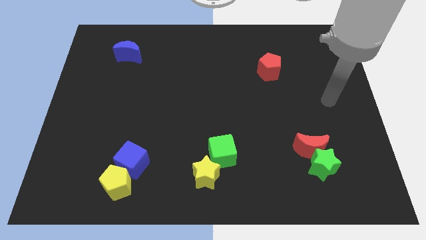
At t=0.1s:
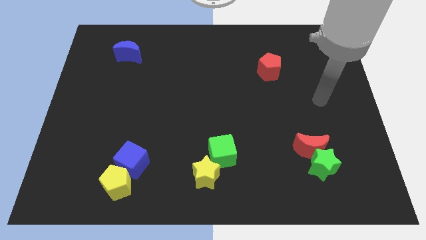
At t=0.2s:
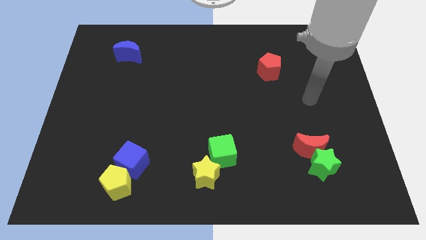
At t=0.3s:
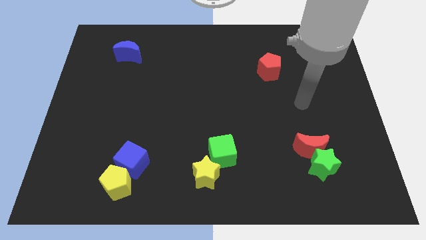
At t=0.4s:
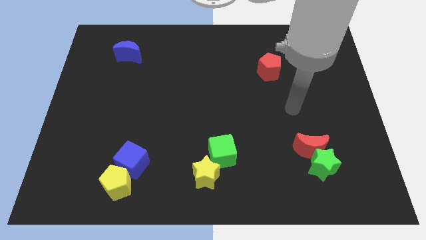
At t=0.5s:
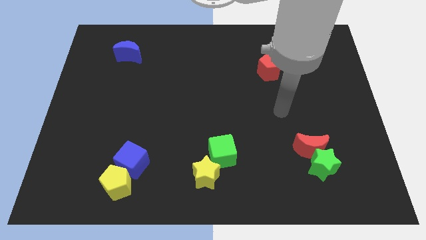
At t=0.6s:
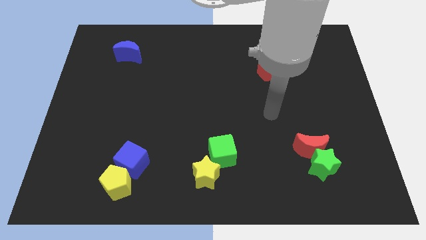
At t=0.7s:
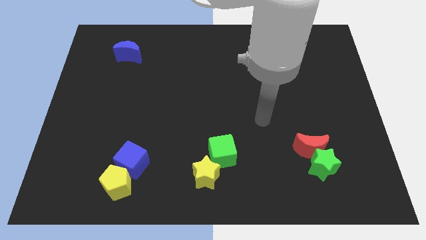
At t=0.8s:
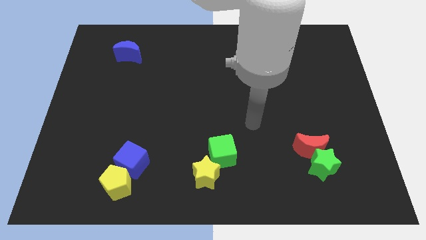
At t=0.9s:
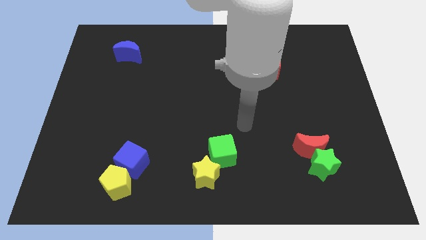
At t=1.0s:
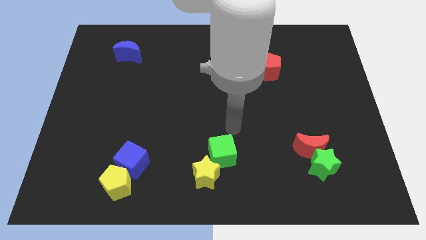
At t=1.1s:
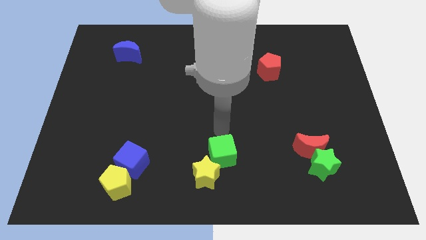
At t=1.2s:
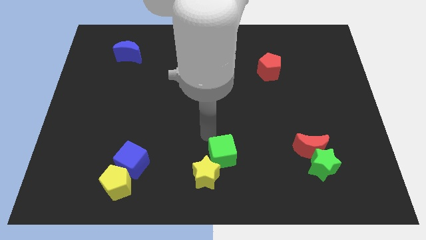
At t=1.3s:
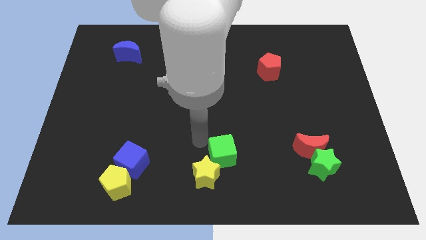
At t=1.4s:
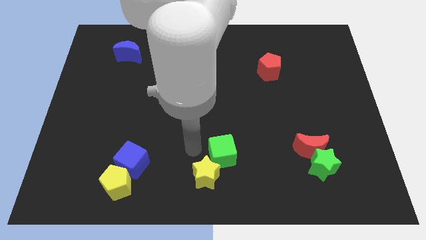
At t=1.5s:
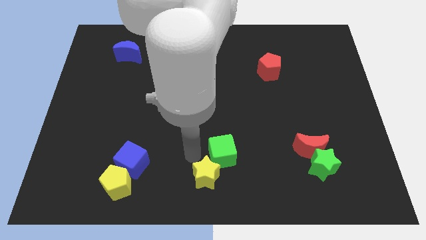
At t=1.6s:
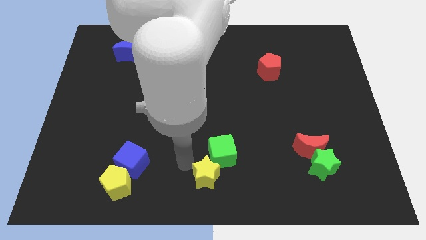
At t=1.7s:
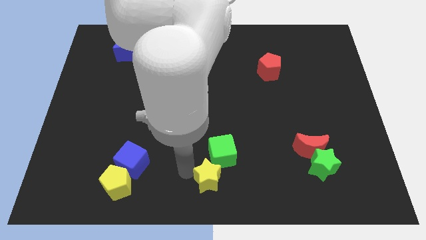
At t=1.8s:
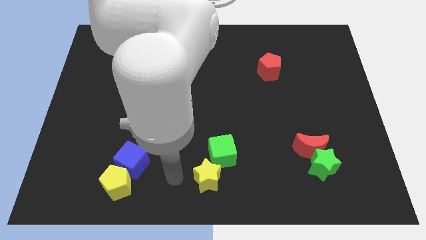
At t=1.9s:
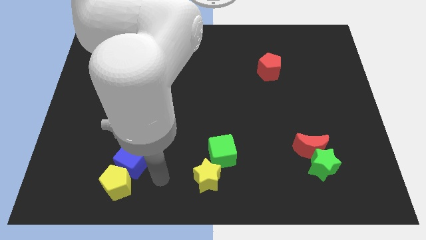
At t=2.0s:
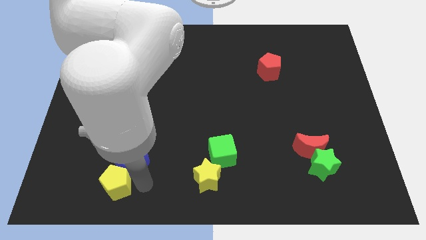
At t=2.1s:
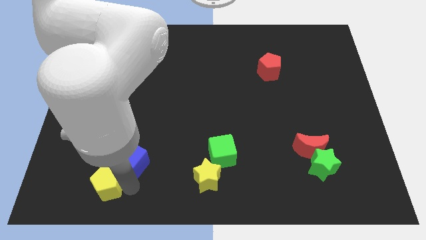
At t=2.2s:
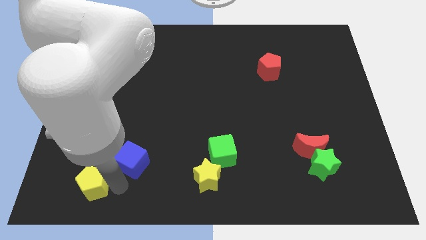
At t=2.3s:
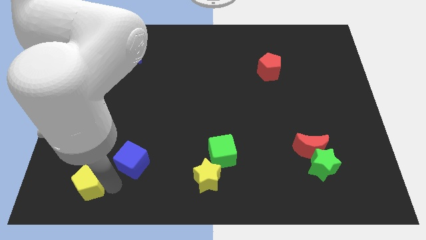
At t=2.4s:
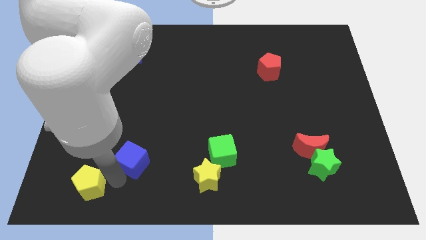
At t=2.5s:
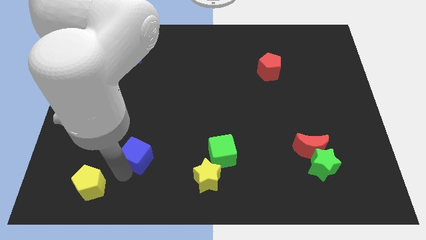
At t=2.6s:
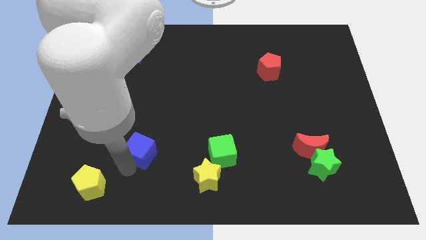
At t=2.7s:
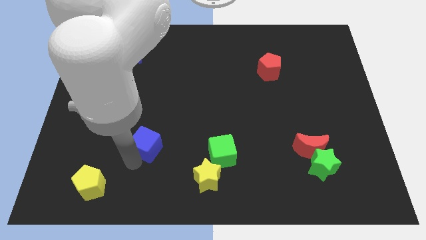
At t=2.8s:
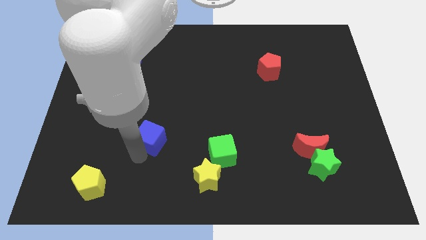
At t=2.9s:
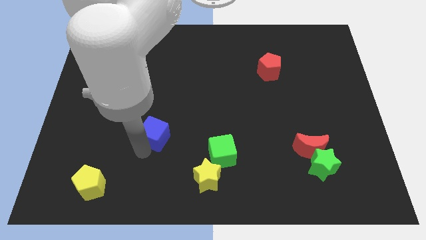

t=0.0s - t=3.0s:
slightly push the blue cube upwards and right diagonally

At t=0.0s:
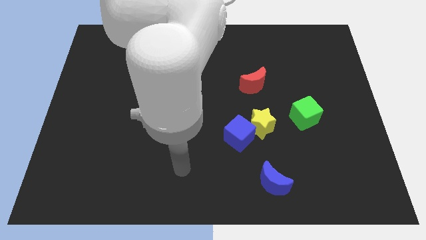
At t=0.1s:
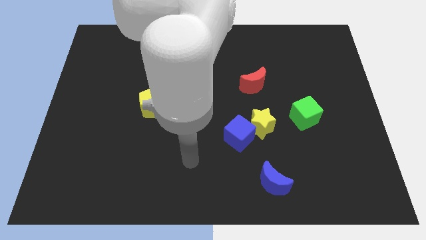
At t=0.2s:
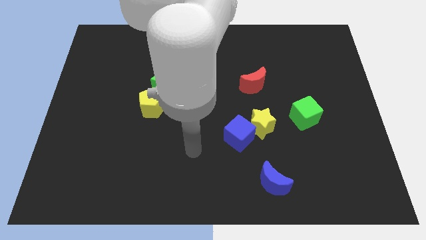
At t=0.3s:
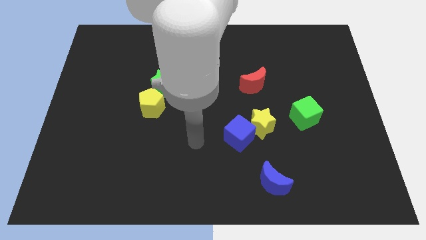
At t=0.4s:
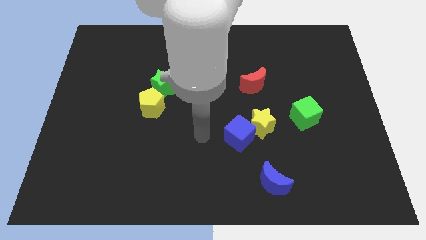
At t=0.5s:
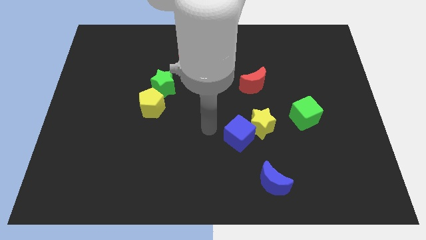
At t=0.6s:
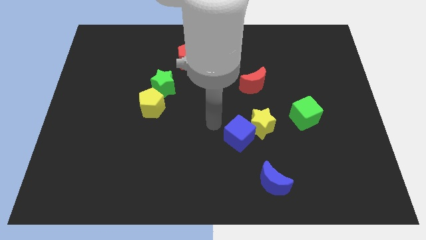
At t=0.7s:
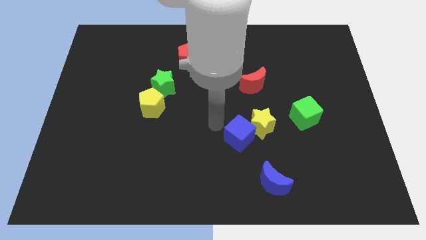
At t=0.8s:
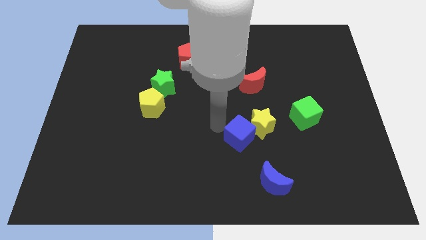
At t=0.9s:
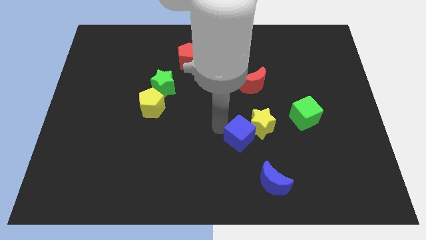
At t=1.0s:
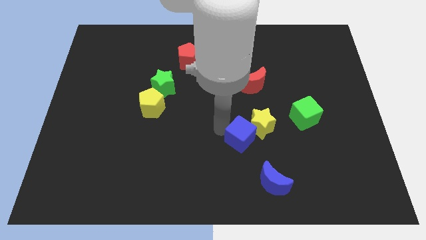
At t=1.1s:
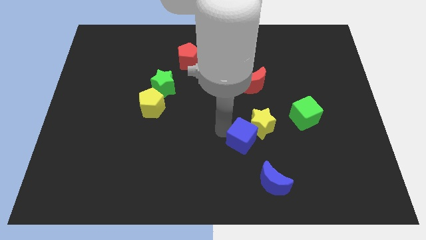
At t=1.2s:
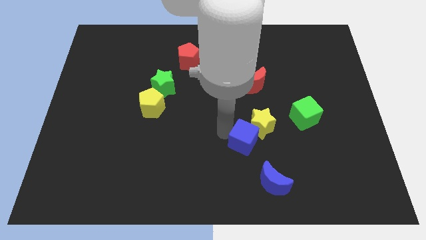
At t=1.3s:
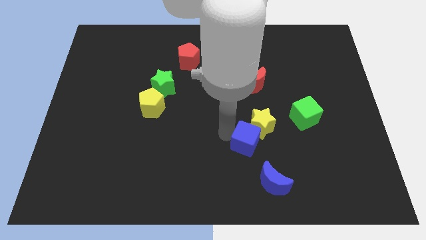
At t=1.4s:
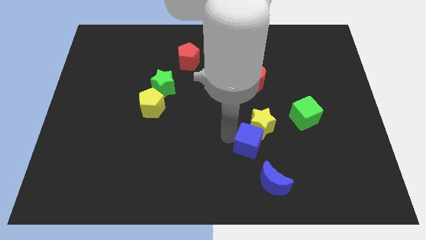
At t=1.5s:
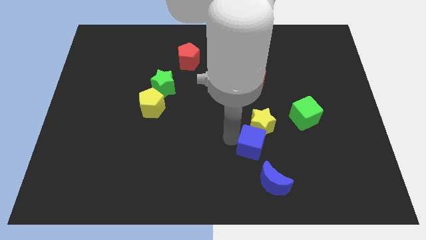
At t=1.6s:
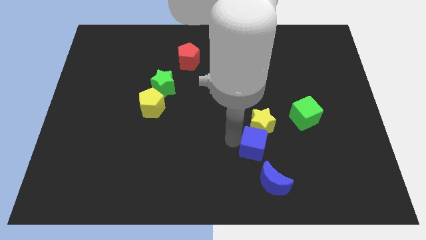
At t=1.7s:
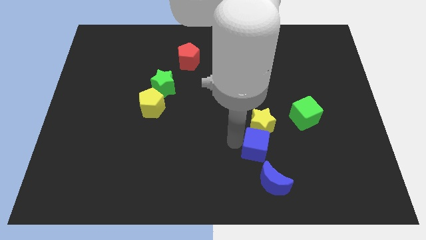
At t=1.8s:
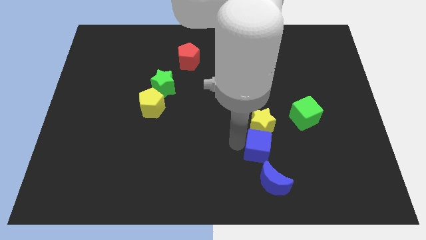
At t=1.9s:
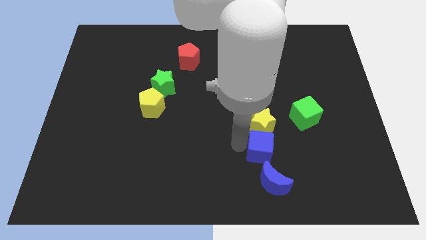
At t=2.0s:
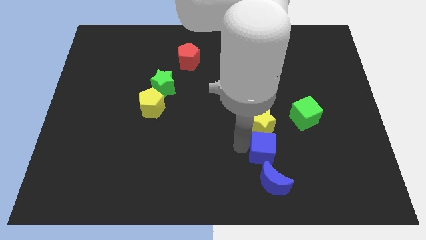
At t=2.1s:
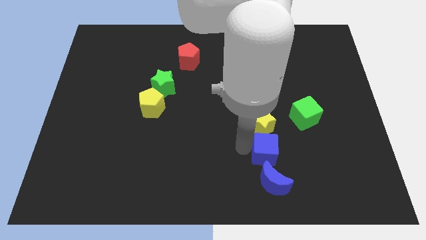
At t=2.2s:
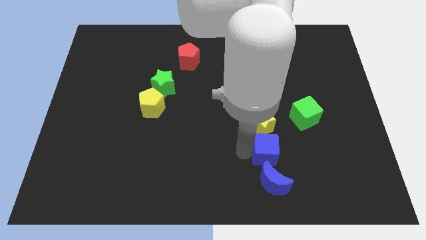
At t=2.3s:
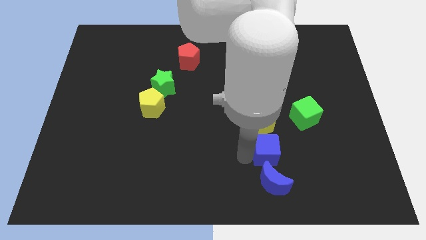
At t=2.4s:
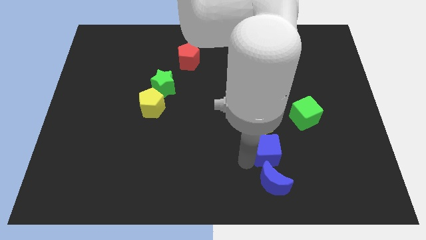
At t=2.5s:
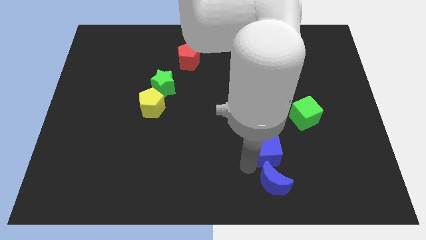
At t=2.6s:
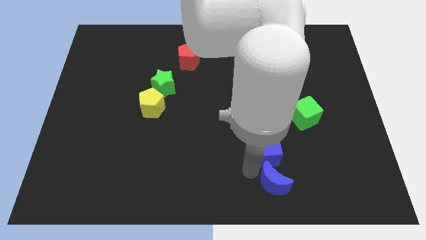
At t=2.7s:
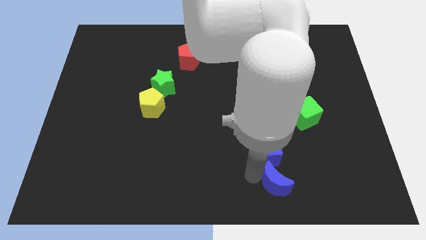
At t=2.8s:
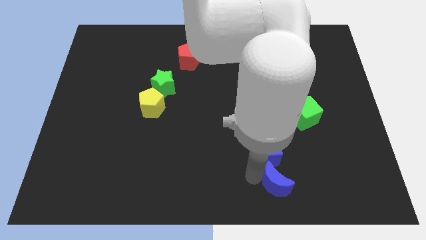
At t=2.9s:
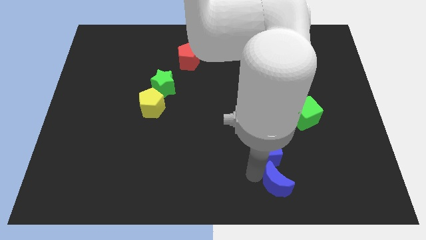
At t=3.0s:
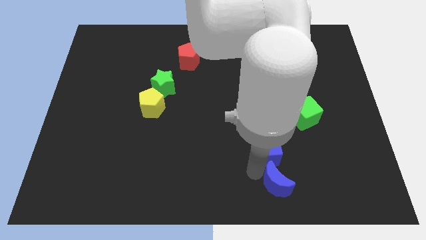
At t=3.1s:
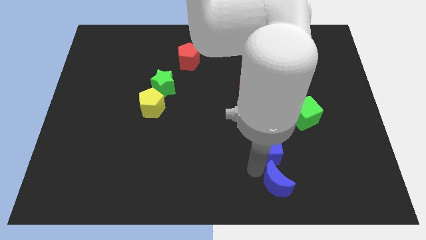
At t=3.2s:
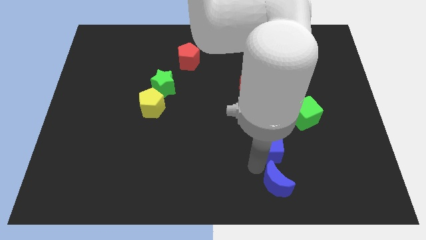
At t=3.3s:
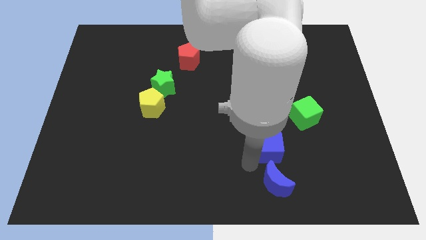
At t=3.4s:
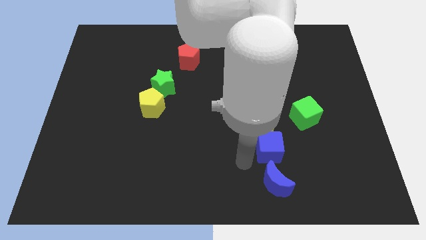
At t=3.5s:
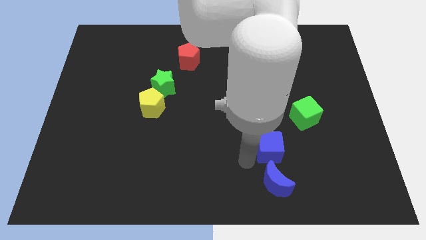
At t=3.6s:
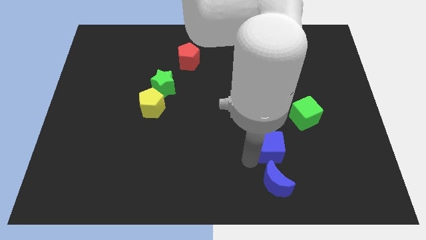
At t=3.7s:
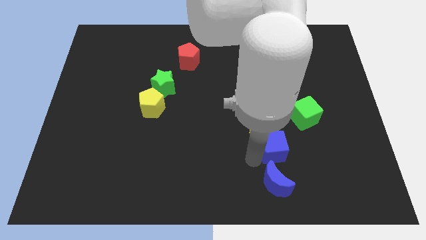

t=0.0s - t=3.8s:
move the blue cube right a bit

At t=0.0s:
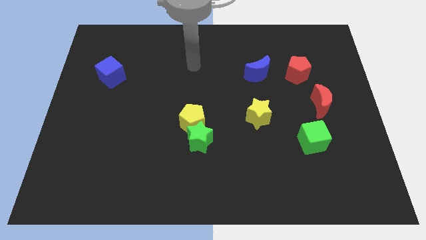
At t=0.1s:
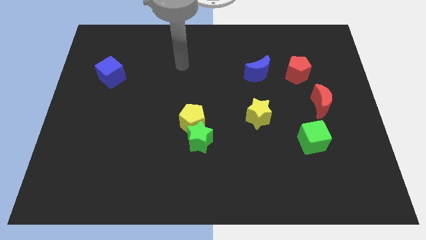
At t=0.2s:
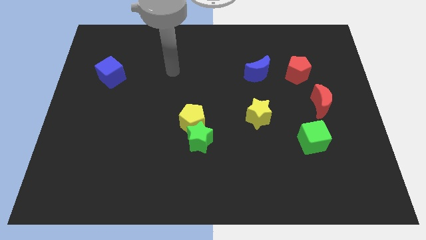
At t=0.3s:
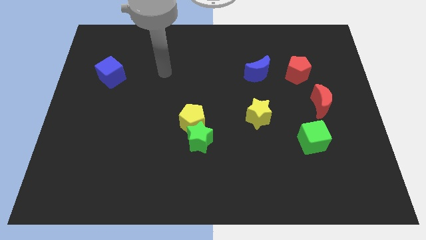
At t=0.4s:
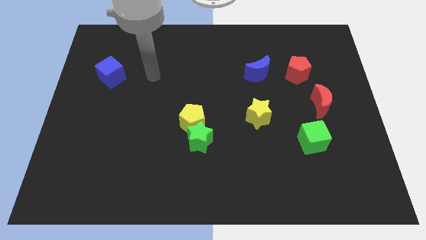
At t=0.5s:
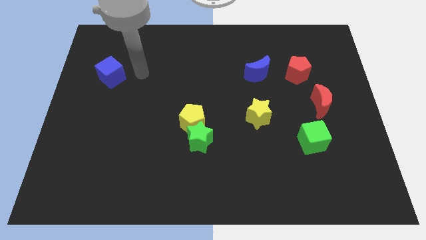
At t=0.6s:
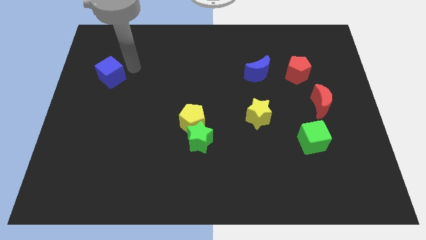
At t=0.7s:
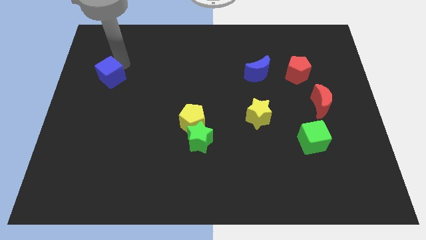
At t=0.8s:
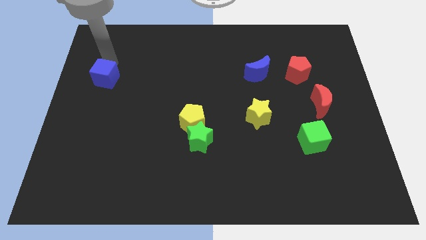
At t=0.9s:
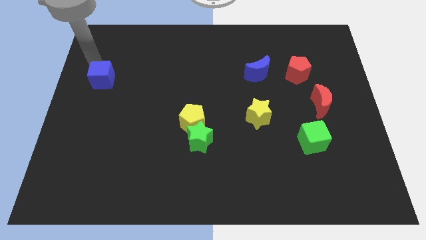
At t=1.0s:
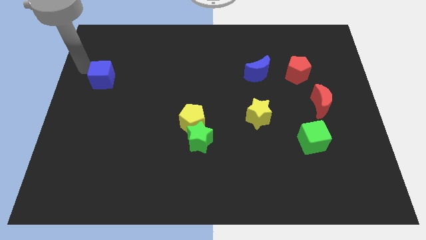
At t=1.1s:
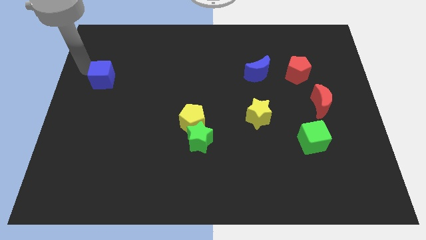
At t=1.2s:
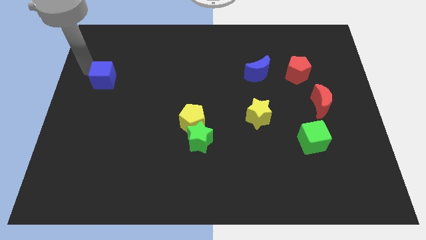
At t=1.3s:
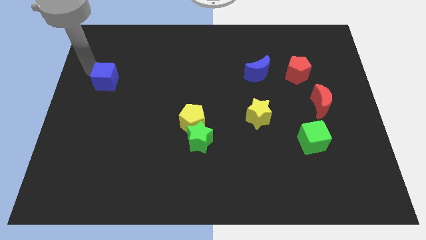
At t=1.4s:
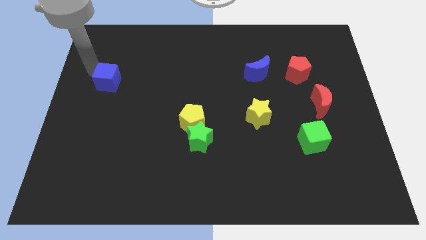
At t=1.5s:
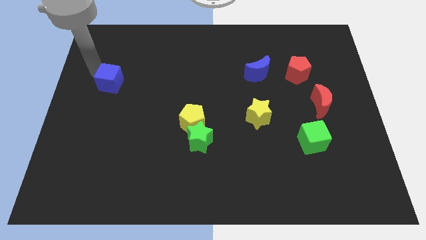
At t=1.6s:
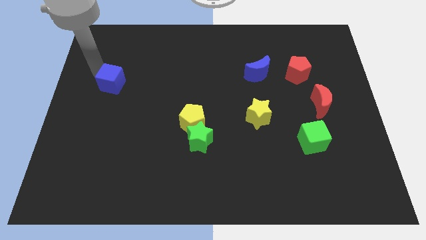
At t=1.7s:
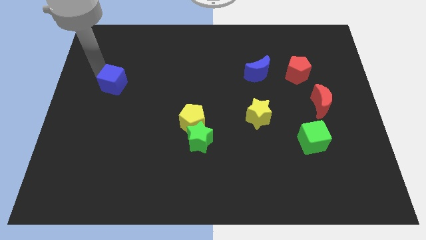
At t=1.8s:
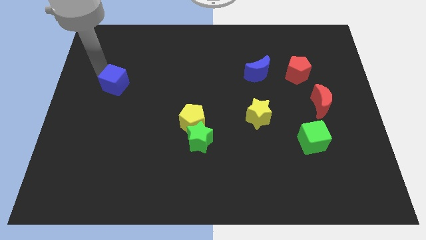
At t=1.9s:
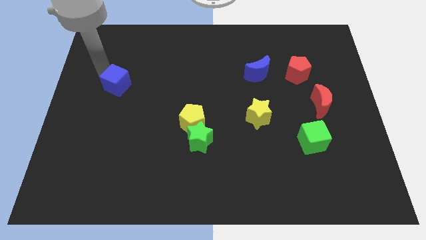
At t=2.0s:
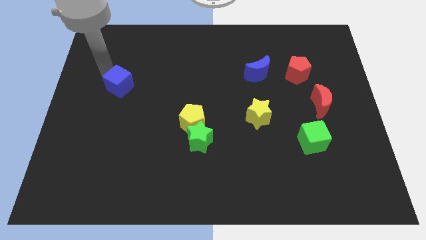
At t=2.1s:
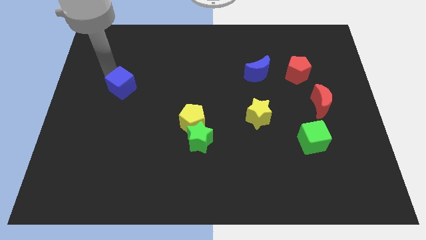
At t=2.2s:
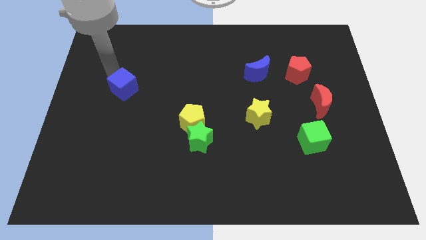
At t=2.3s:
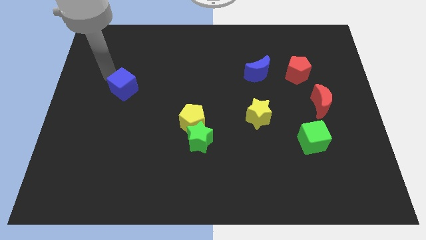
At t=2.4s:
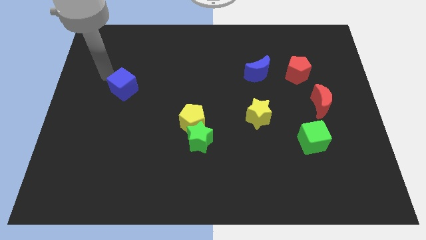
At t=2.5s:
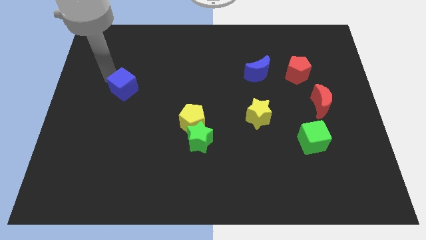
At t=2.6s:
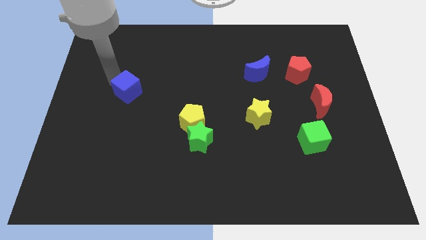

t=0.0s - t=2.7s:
slide the blue cube downwards and right slightly
